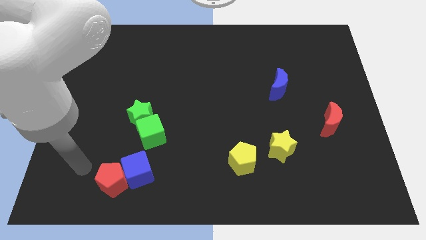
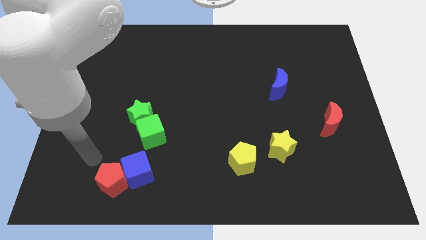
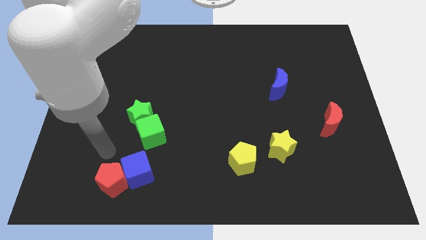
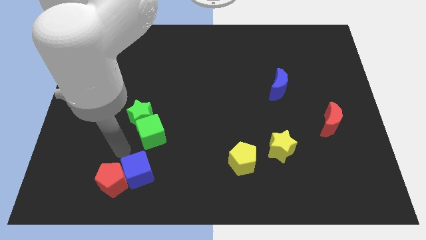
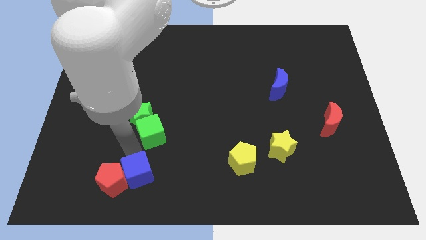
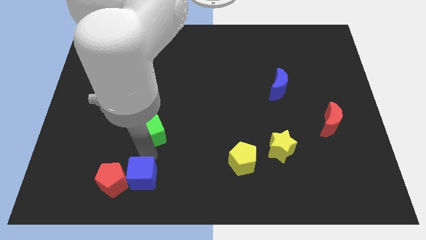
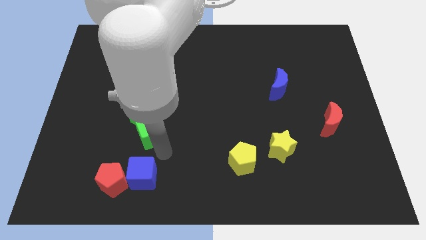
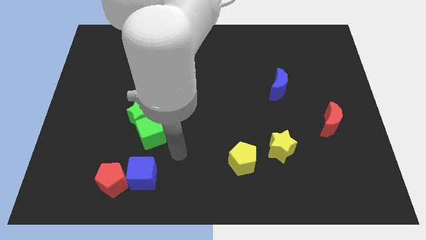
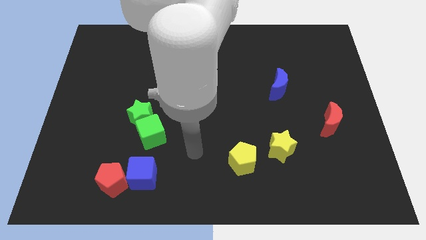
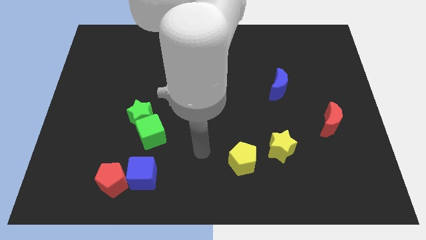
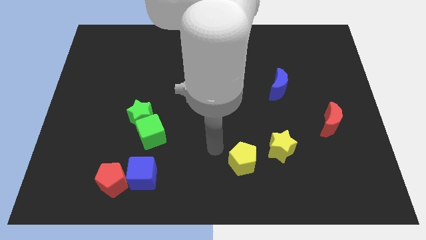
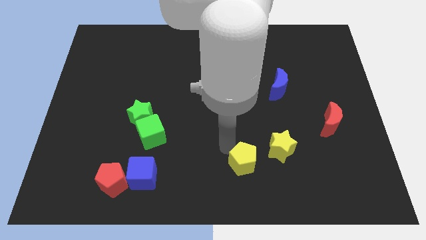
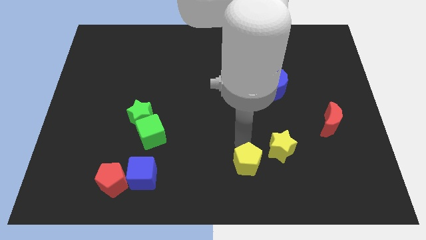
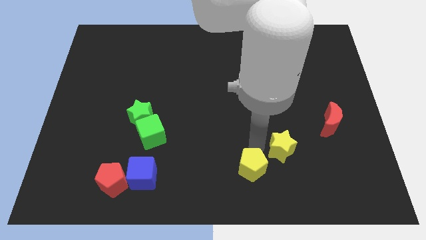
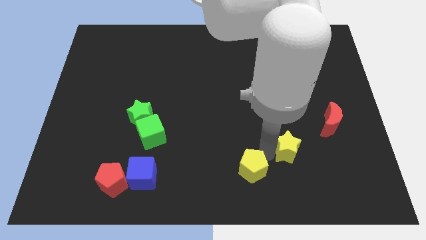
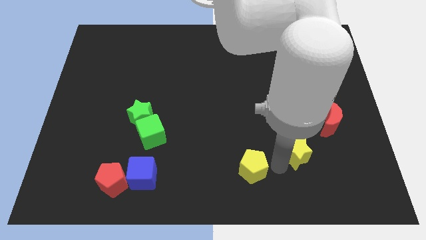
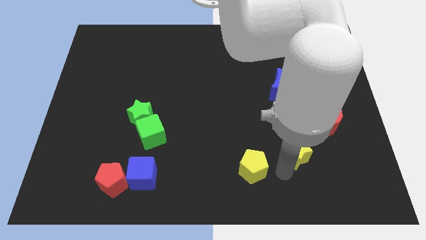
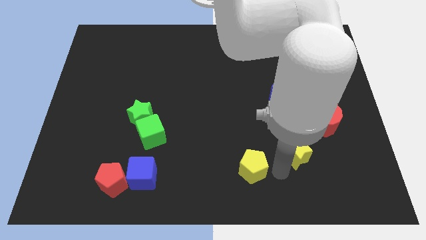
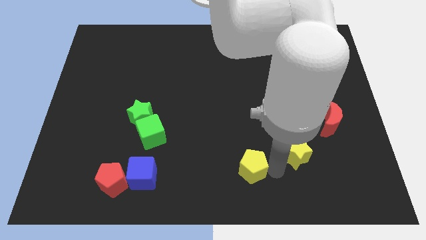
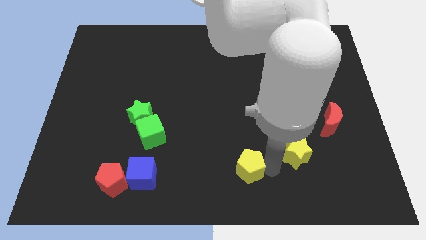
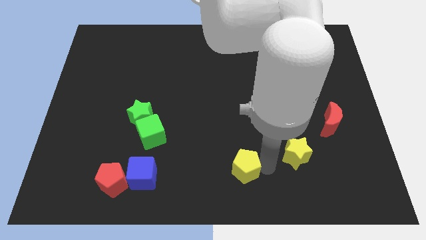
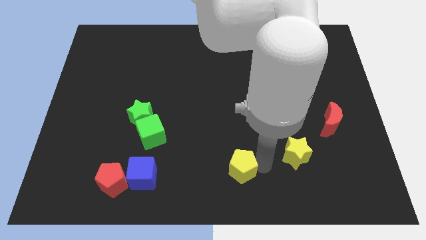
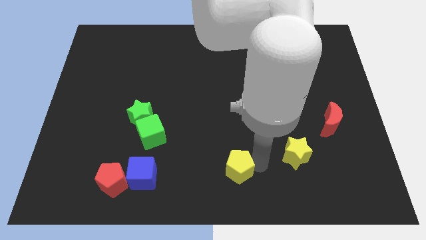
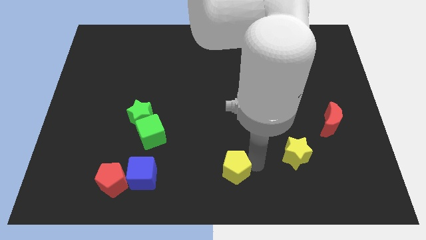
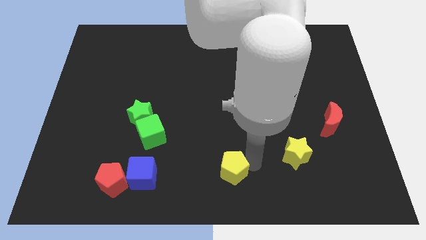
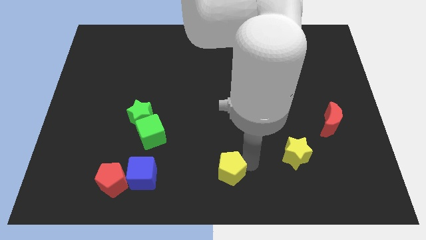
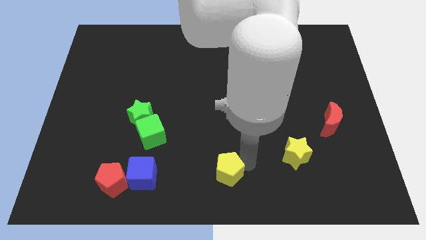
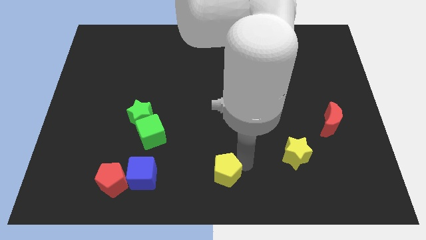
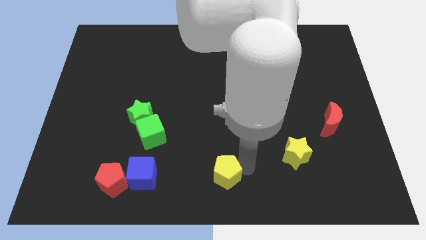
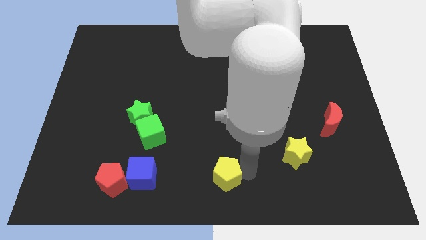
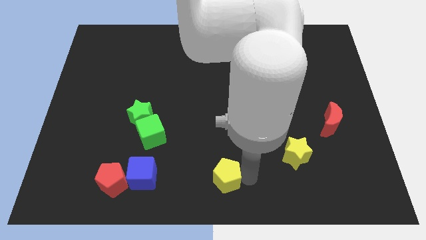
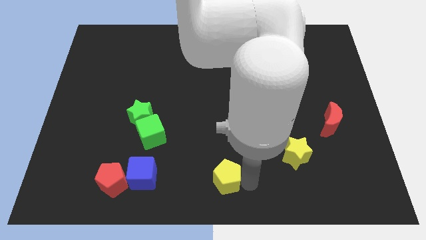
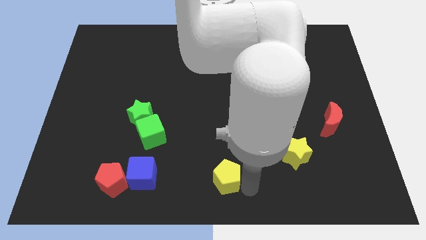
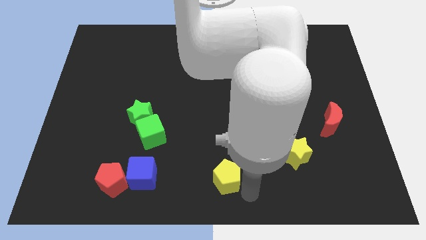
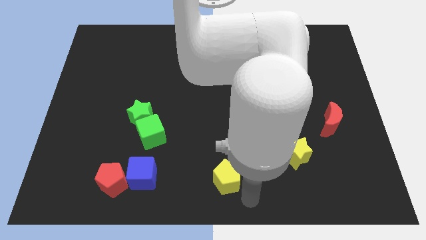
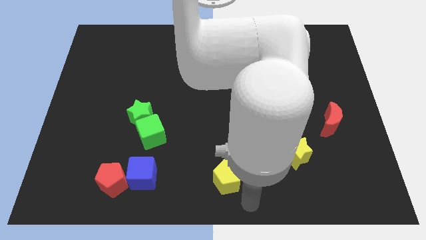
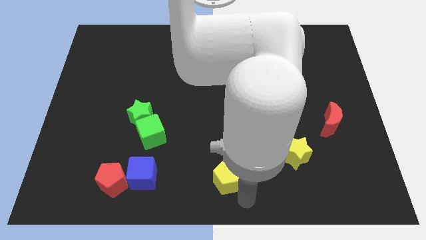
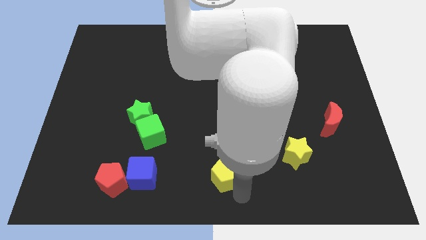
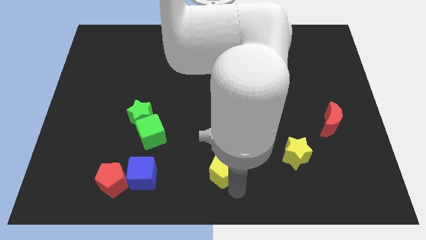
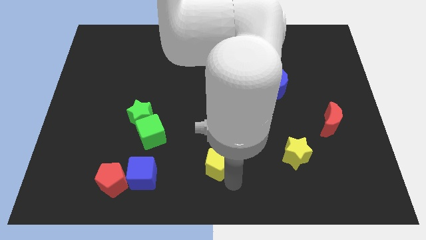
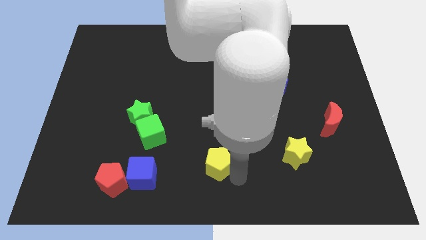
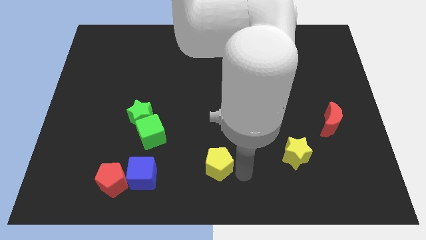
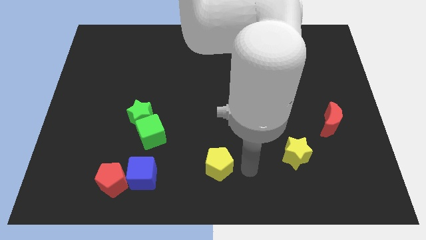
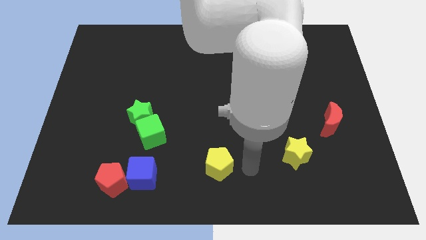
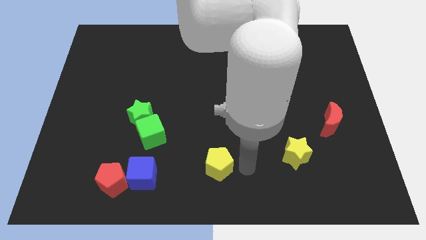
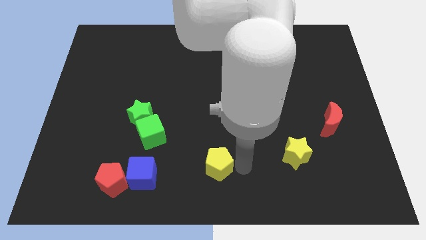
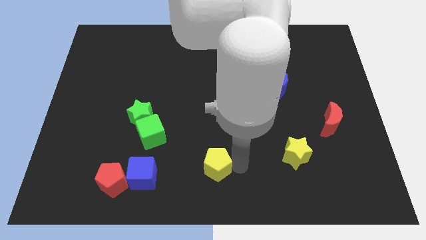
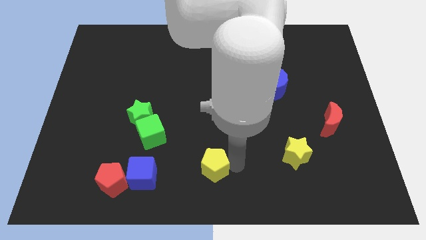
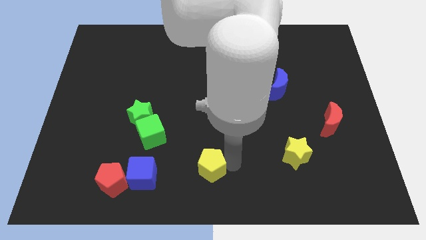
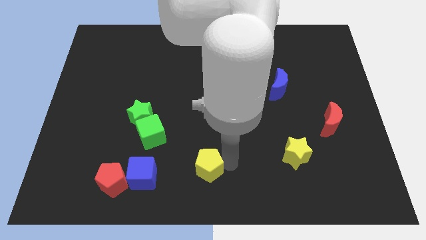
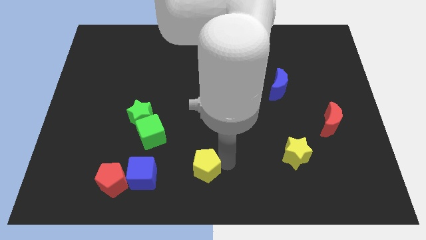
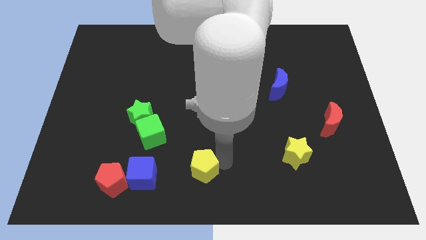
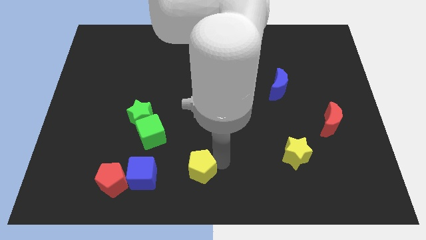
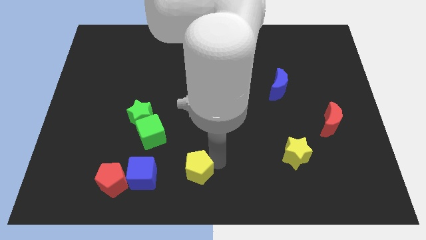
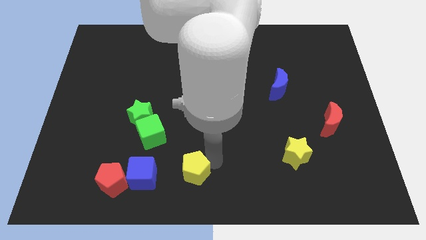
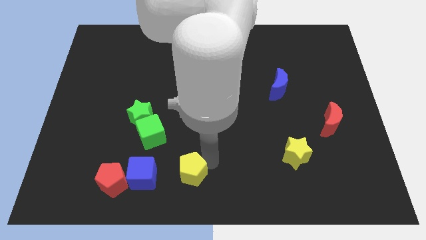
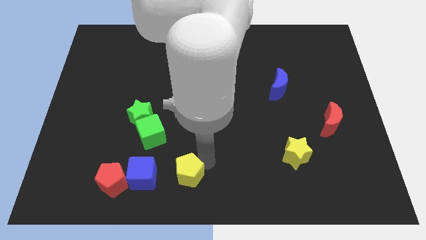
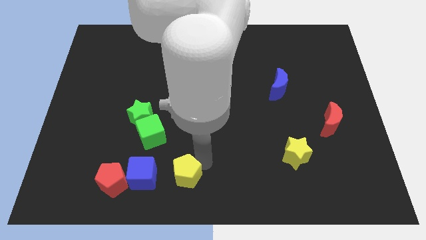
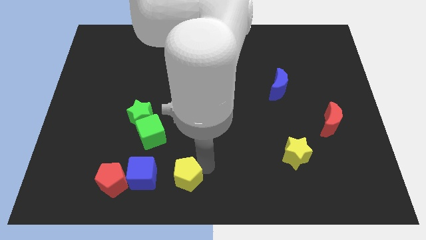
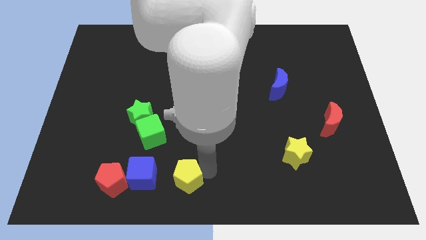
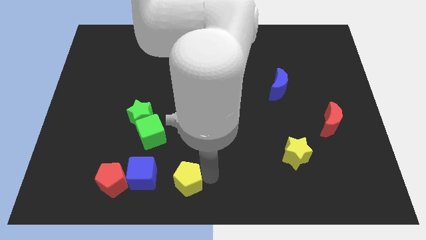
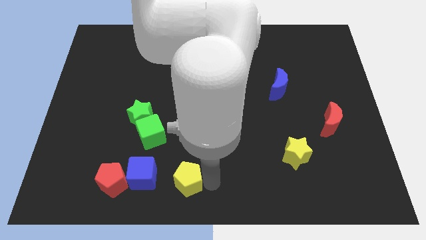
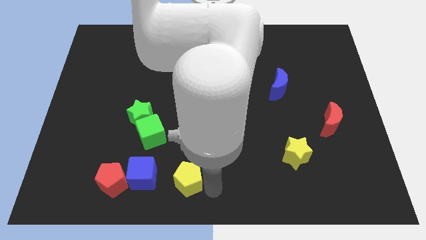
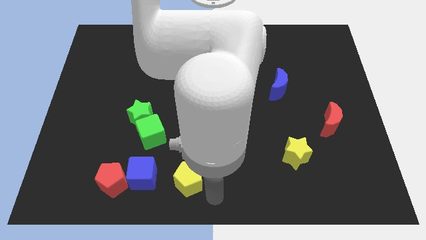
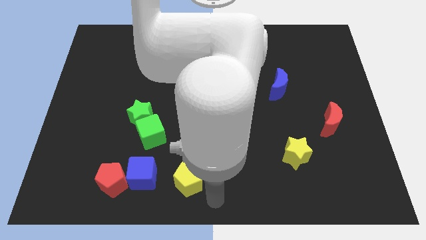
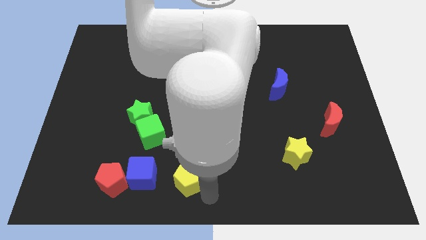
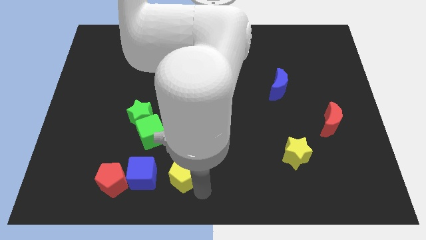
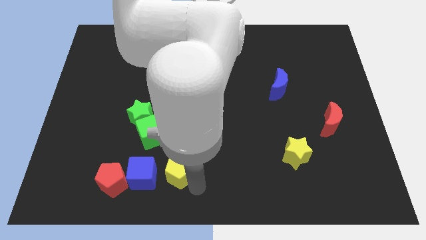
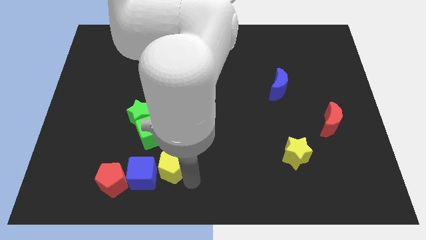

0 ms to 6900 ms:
slide the yellow pentagon close to the blue cube
